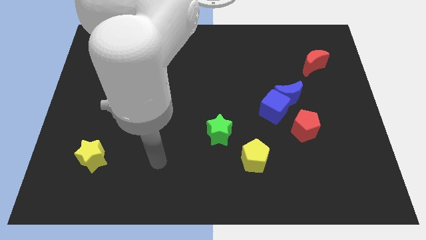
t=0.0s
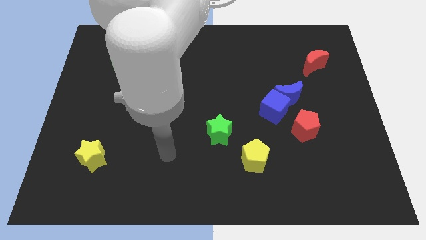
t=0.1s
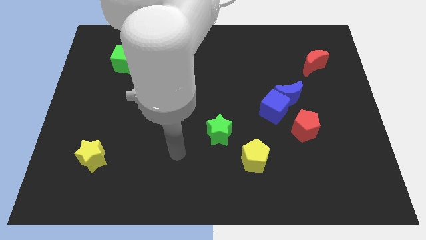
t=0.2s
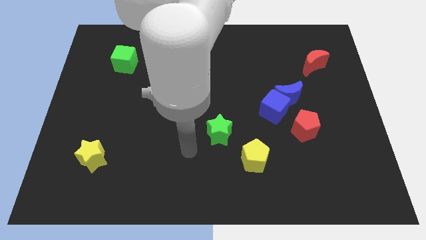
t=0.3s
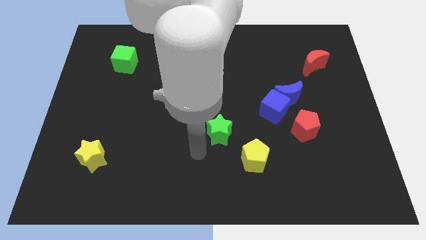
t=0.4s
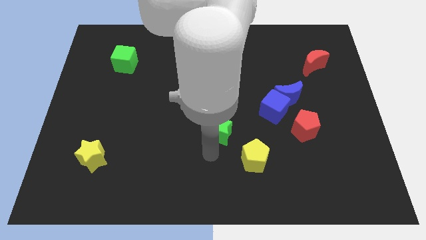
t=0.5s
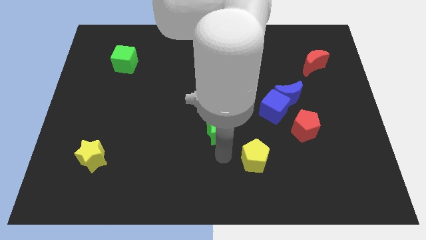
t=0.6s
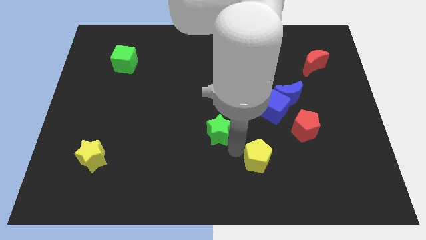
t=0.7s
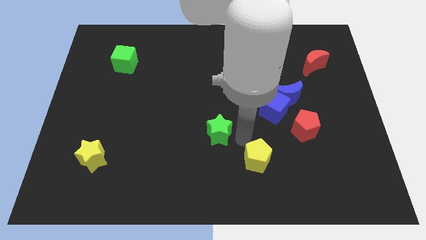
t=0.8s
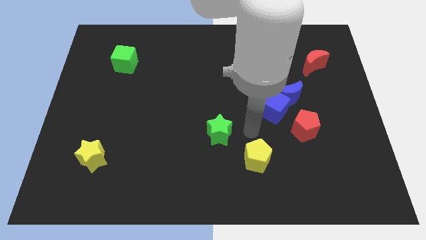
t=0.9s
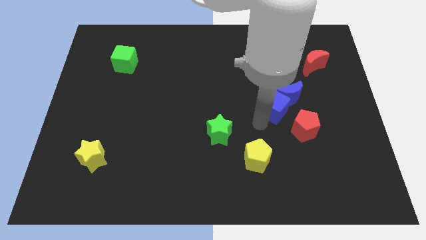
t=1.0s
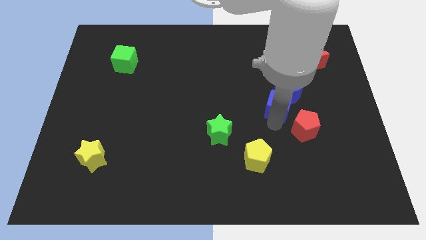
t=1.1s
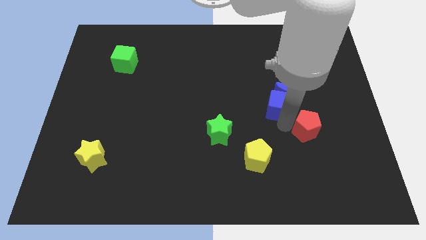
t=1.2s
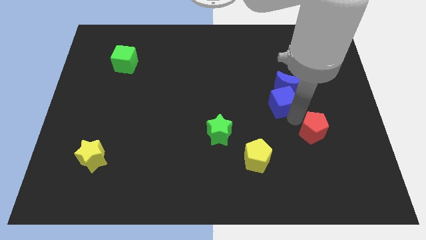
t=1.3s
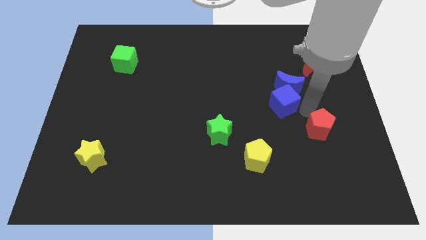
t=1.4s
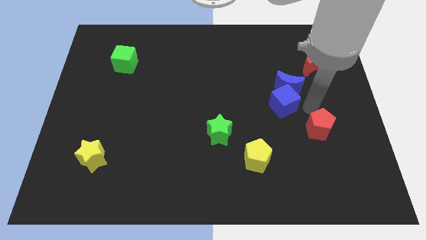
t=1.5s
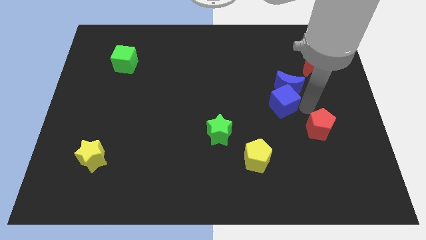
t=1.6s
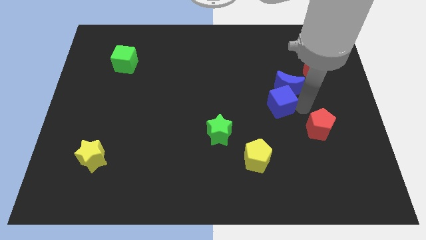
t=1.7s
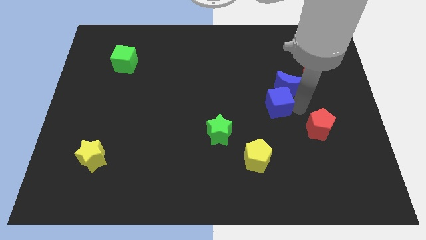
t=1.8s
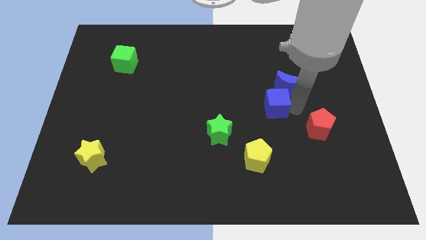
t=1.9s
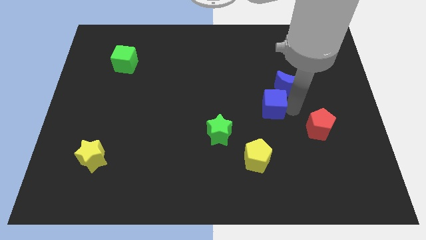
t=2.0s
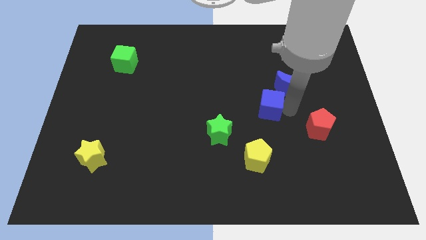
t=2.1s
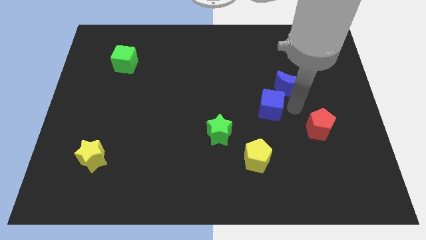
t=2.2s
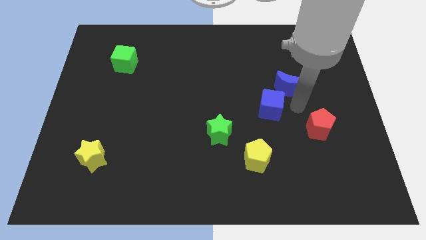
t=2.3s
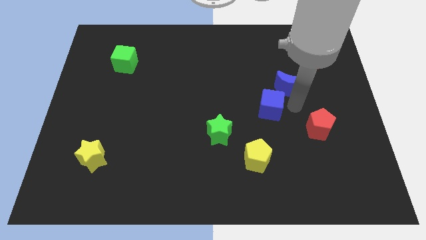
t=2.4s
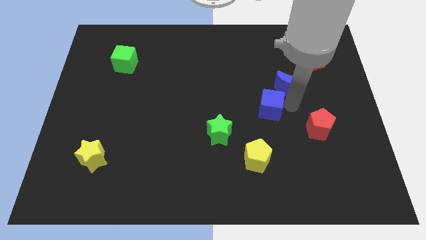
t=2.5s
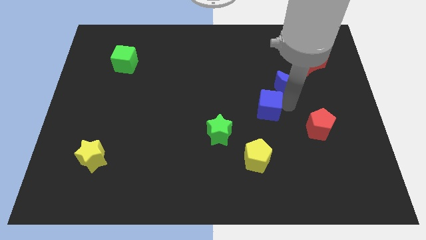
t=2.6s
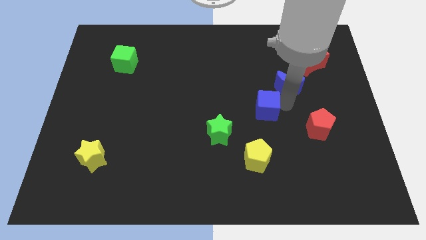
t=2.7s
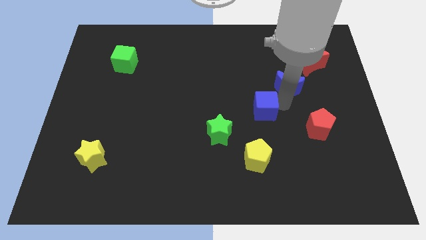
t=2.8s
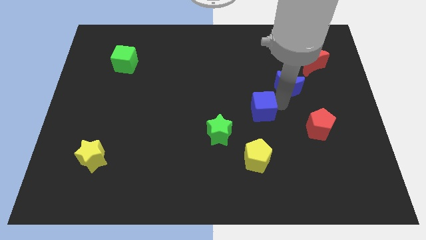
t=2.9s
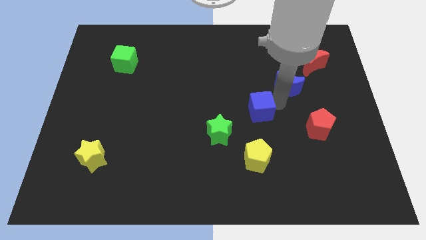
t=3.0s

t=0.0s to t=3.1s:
pull the blue cube apart from the blue moon and red pentagon

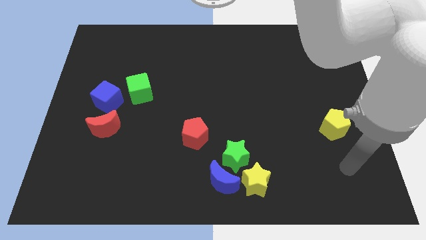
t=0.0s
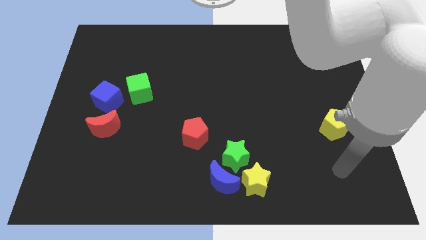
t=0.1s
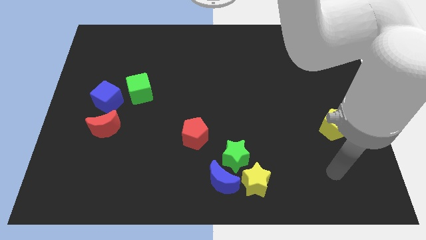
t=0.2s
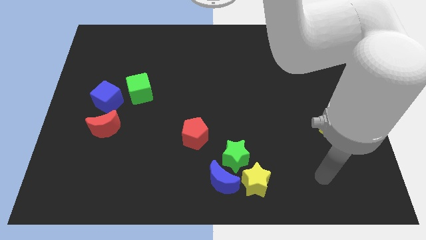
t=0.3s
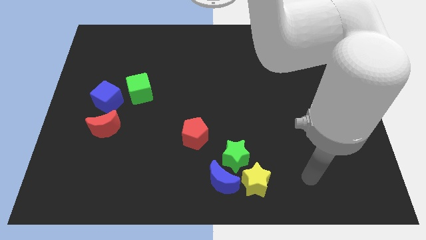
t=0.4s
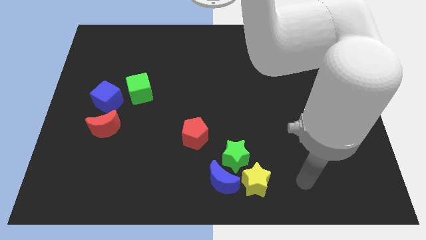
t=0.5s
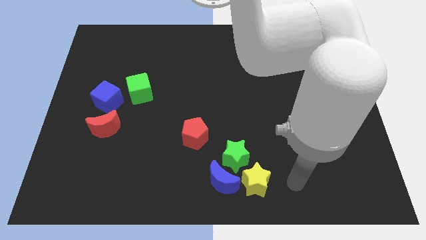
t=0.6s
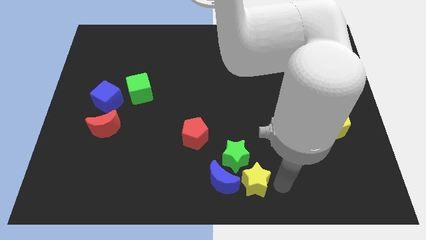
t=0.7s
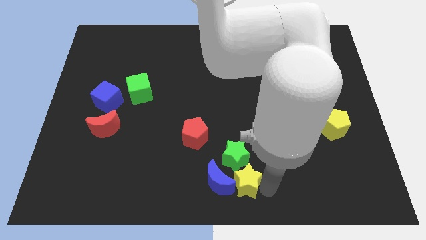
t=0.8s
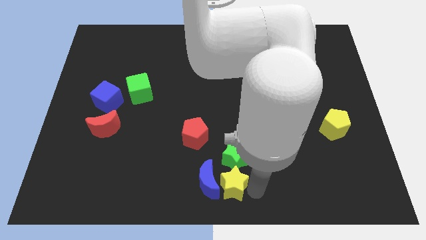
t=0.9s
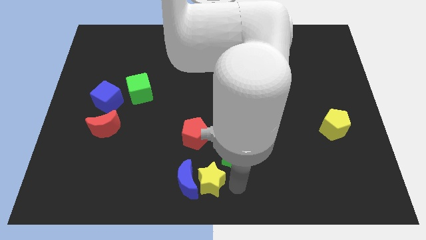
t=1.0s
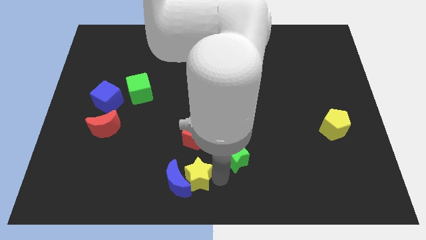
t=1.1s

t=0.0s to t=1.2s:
pull the green star apart from the blue moon and yellow star

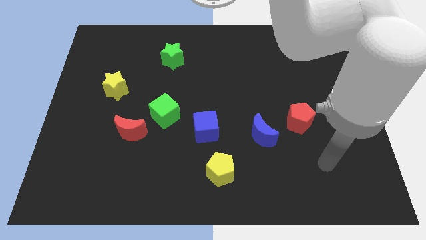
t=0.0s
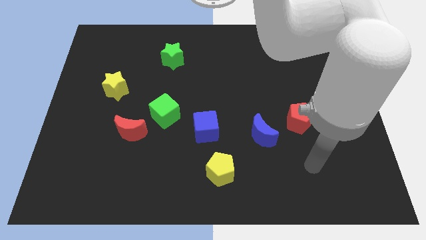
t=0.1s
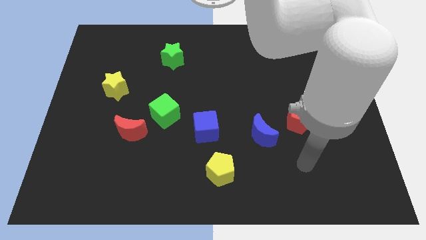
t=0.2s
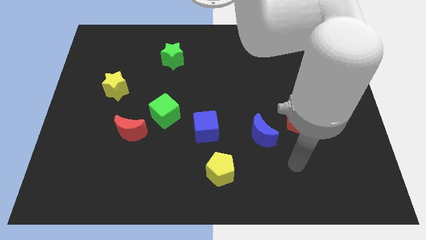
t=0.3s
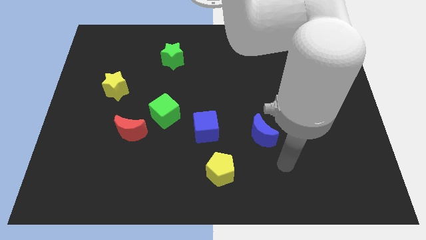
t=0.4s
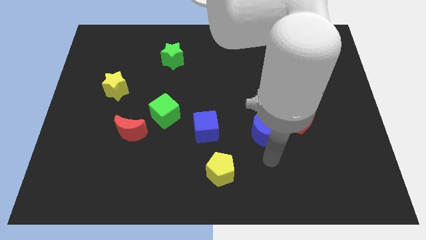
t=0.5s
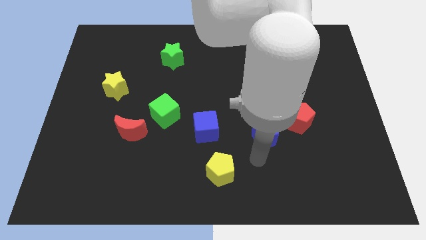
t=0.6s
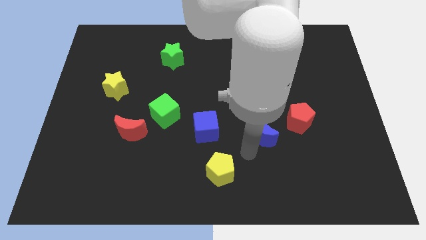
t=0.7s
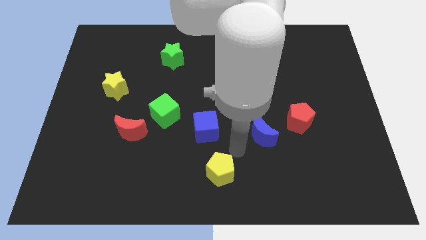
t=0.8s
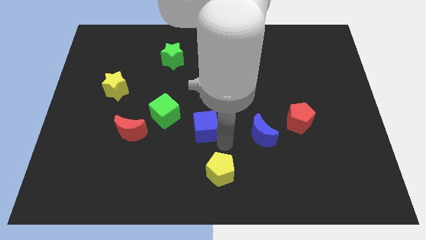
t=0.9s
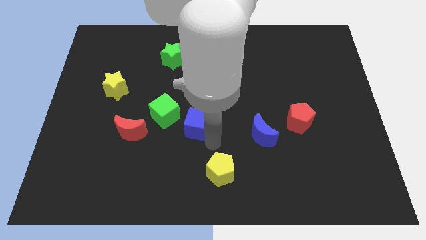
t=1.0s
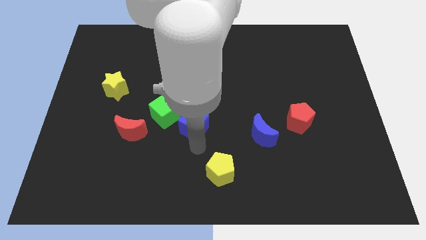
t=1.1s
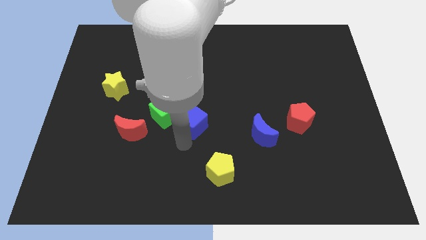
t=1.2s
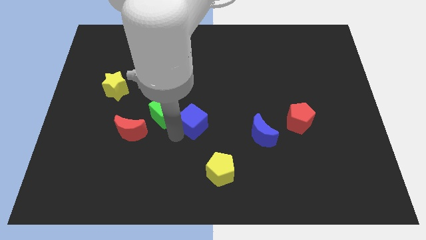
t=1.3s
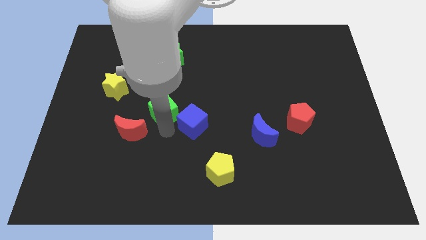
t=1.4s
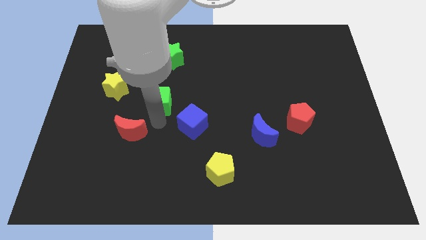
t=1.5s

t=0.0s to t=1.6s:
separate the red moon from the green cube

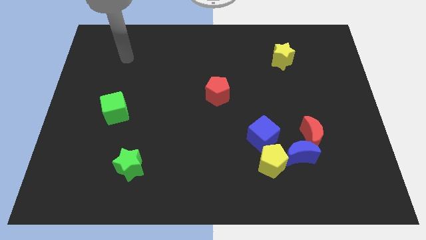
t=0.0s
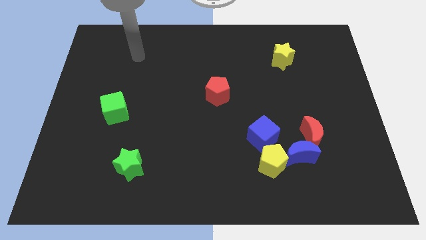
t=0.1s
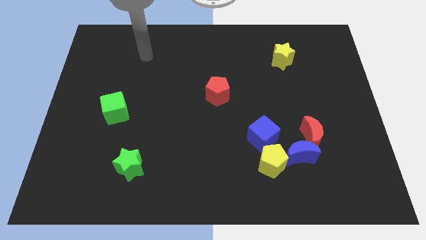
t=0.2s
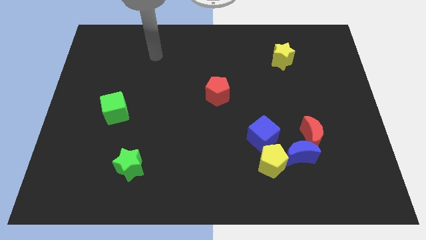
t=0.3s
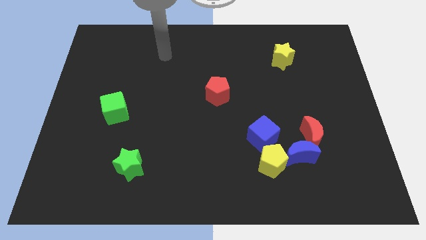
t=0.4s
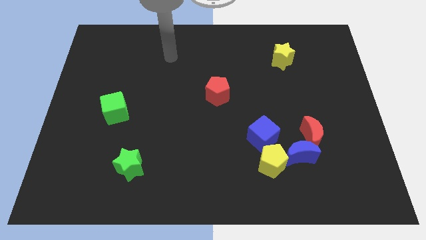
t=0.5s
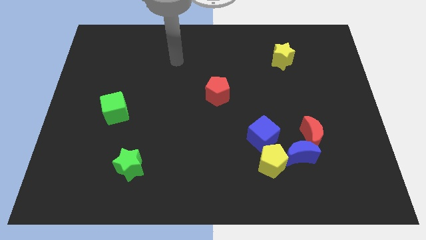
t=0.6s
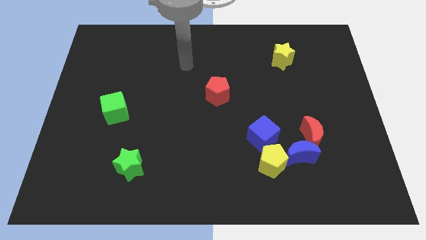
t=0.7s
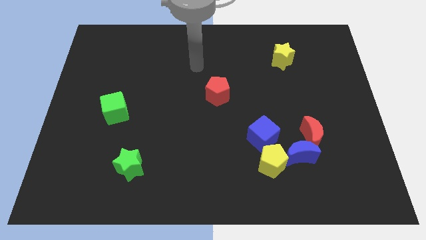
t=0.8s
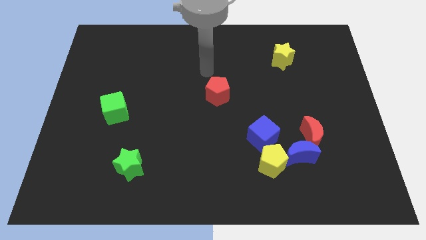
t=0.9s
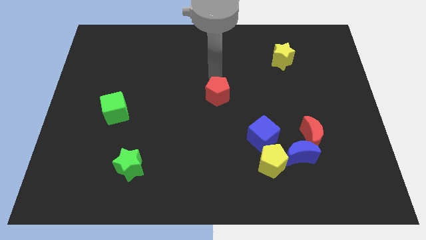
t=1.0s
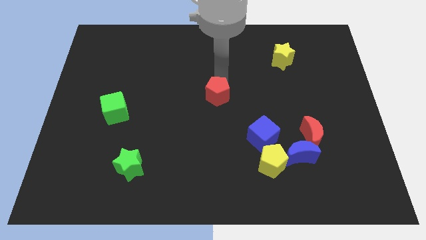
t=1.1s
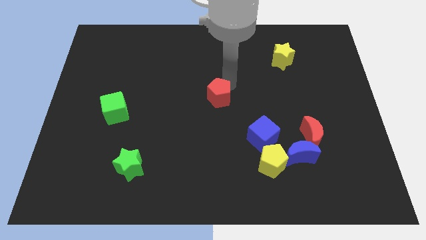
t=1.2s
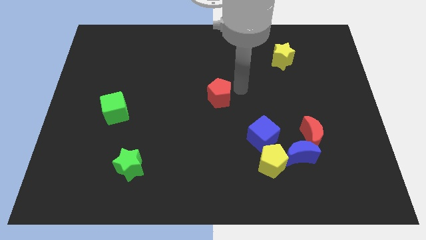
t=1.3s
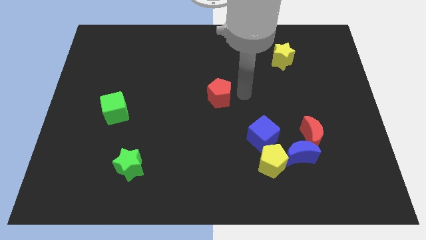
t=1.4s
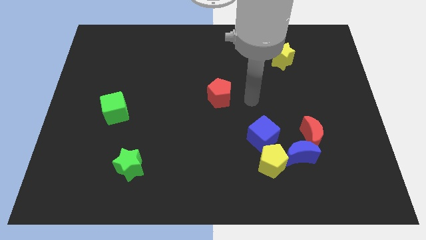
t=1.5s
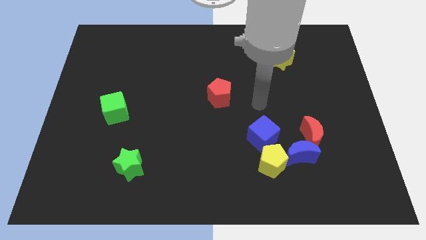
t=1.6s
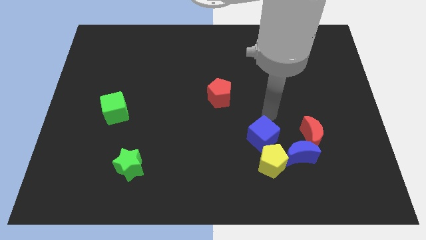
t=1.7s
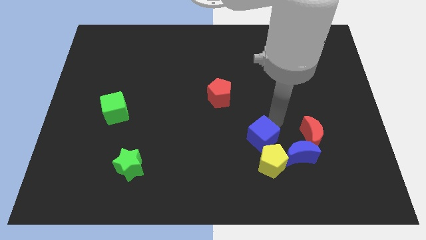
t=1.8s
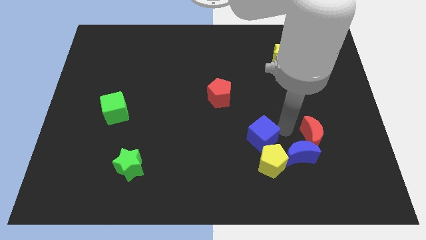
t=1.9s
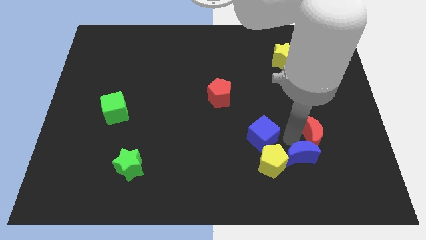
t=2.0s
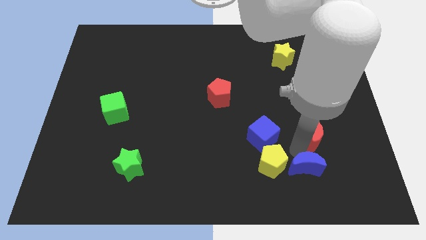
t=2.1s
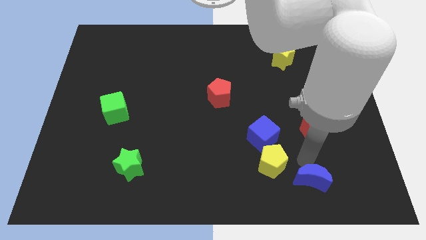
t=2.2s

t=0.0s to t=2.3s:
move the red moon away from the blue moon

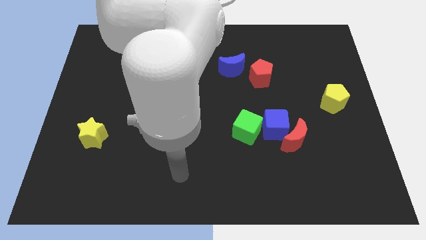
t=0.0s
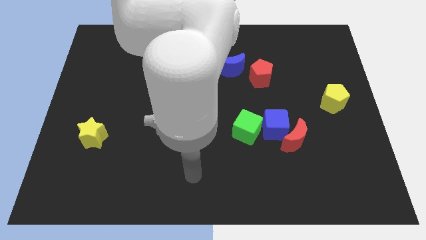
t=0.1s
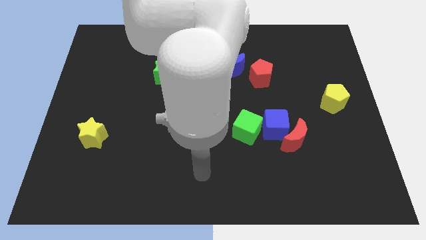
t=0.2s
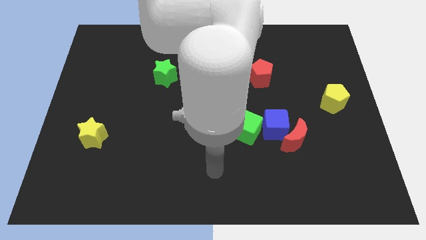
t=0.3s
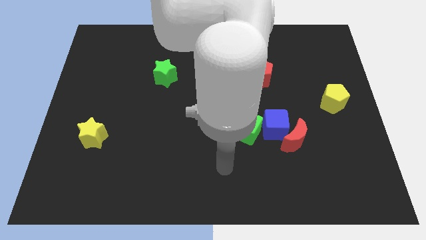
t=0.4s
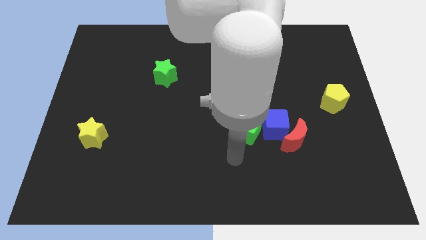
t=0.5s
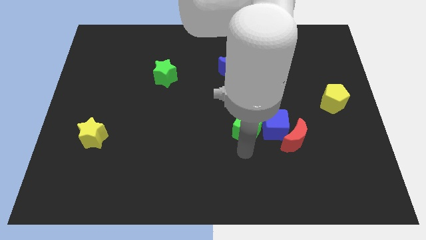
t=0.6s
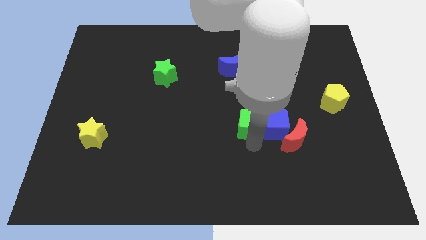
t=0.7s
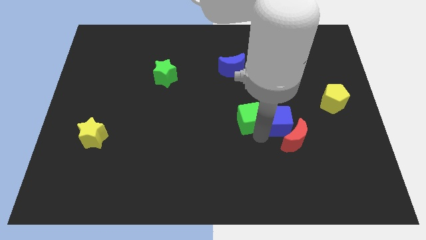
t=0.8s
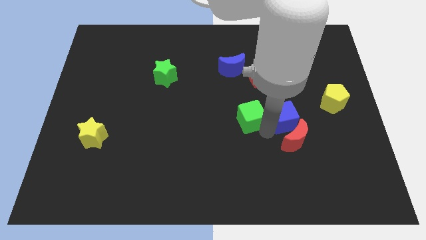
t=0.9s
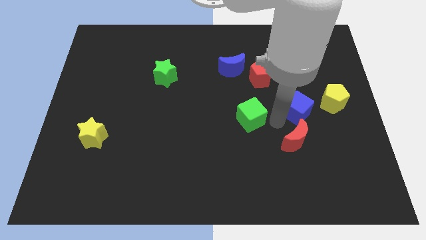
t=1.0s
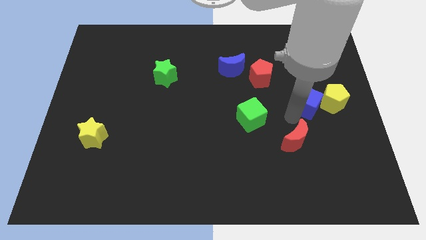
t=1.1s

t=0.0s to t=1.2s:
separate the red moon from the blue cube

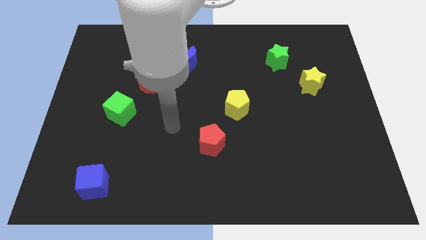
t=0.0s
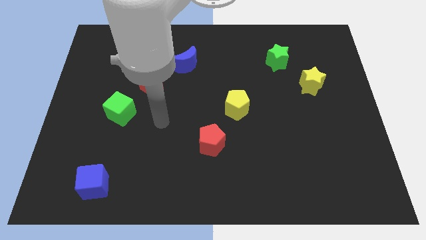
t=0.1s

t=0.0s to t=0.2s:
move the red moon away from the green cube
